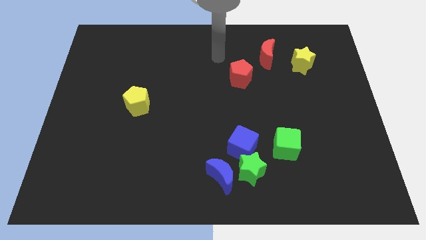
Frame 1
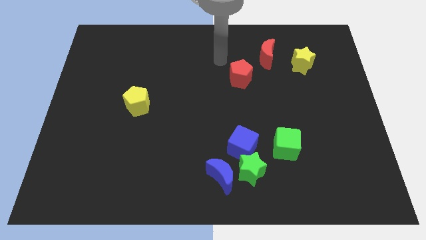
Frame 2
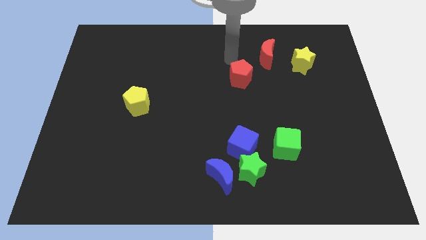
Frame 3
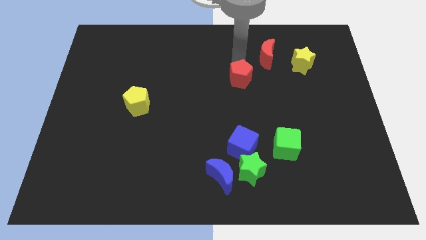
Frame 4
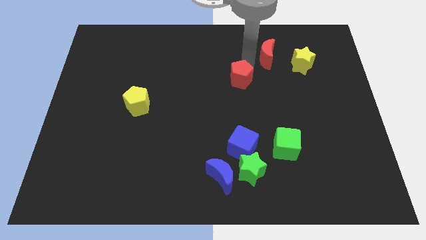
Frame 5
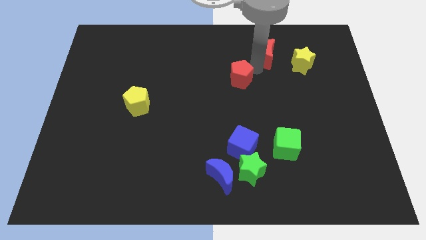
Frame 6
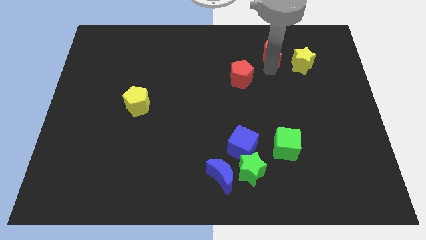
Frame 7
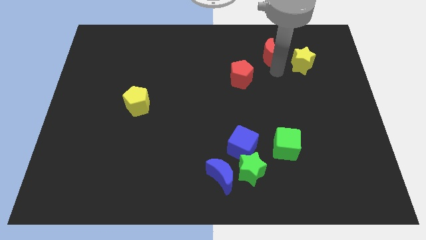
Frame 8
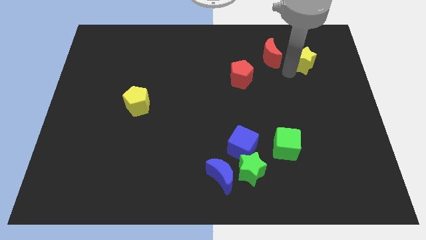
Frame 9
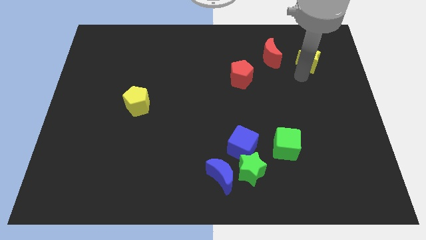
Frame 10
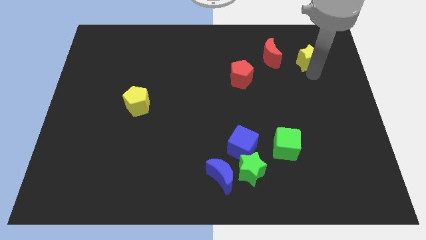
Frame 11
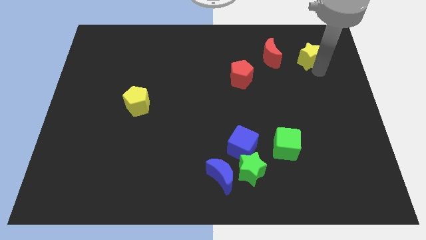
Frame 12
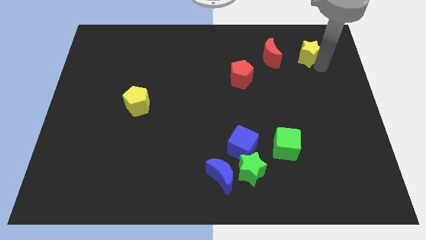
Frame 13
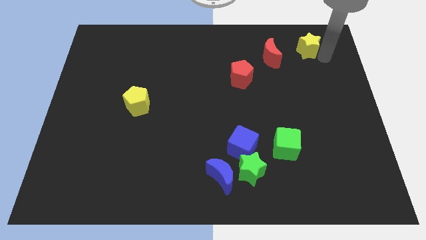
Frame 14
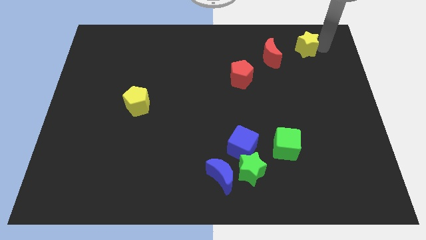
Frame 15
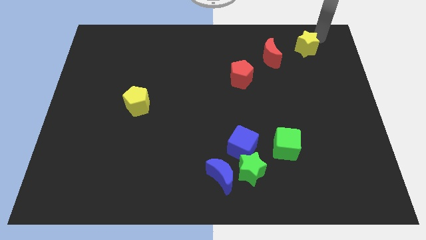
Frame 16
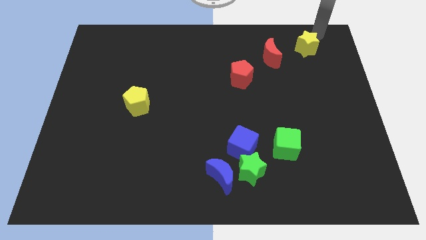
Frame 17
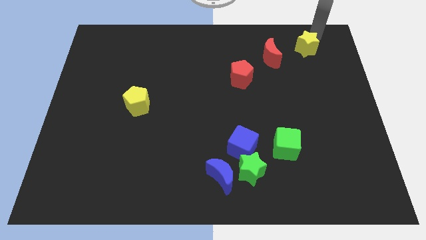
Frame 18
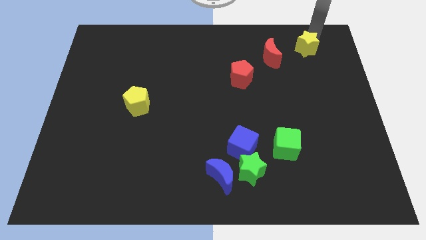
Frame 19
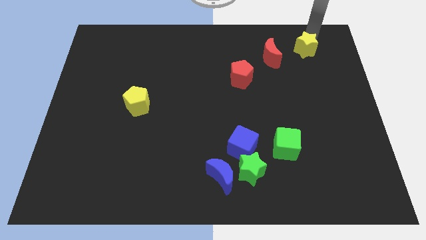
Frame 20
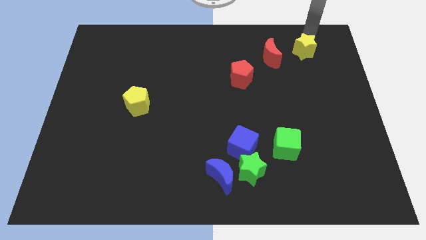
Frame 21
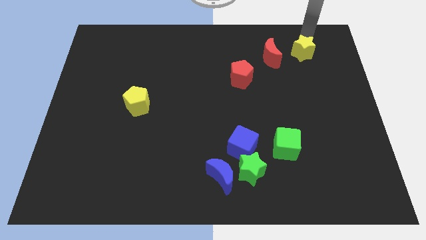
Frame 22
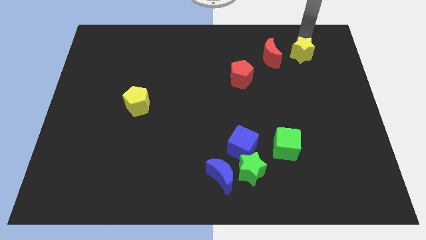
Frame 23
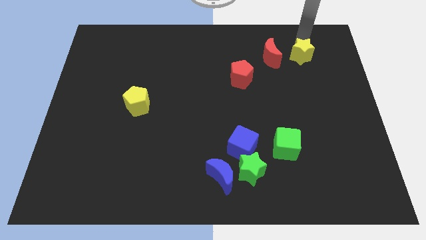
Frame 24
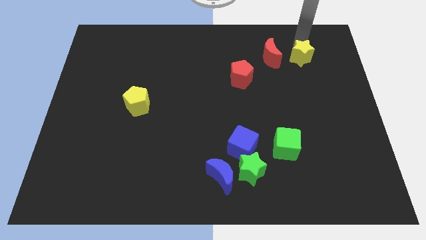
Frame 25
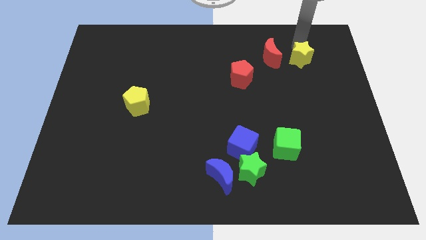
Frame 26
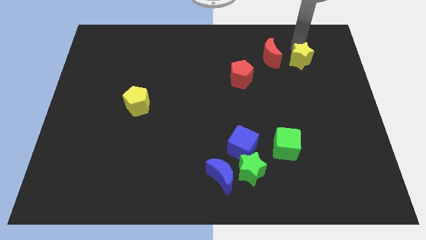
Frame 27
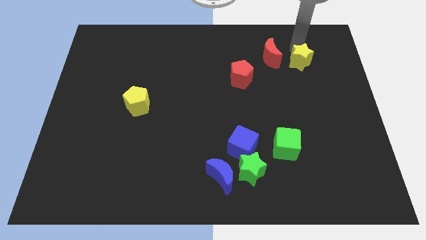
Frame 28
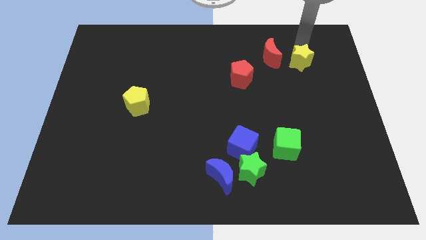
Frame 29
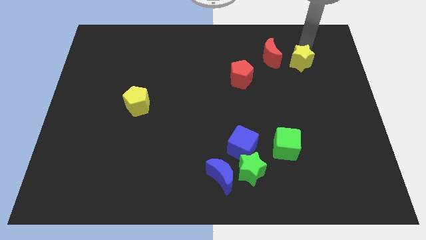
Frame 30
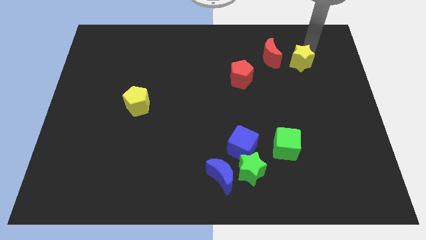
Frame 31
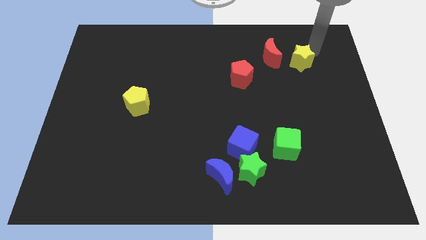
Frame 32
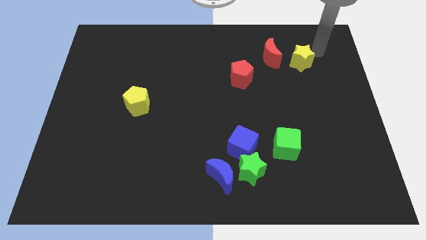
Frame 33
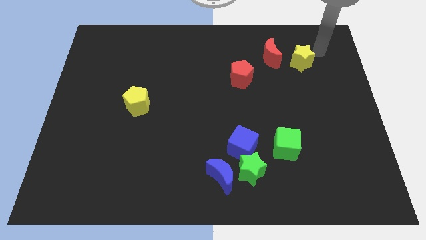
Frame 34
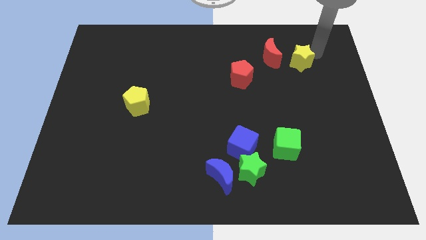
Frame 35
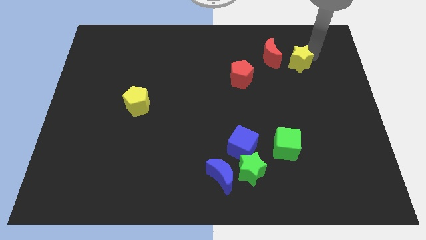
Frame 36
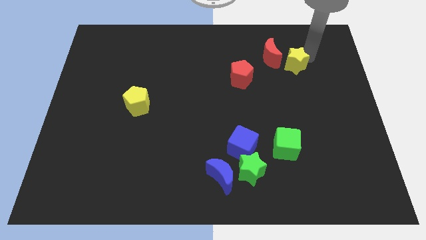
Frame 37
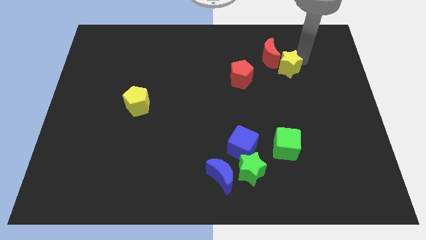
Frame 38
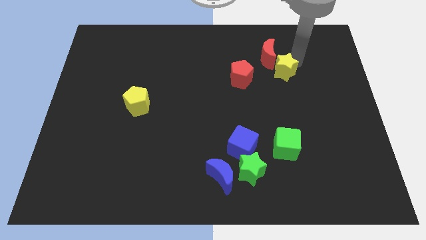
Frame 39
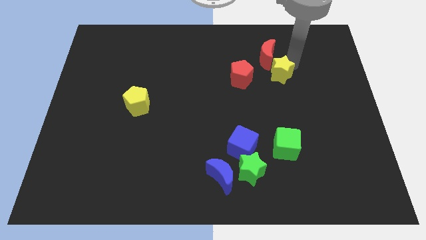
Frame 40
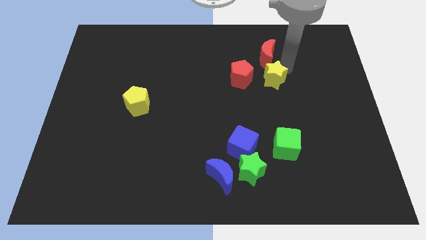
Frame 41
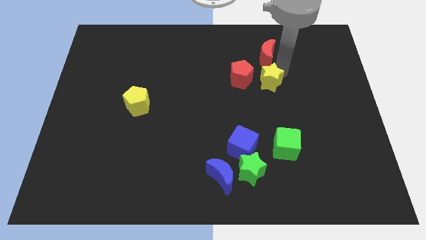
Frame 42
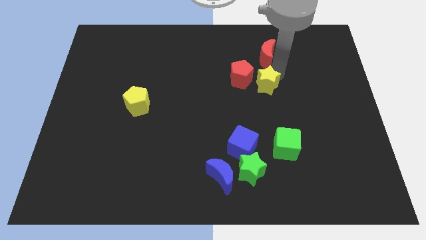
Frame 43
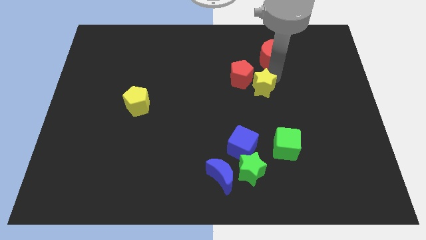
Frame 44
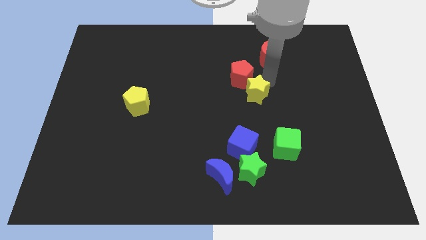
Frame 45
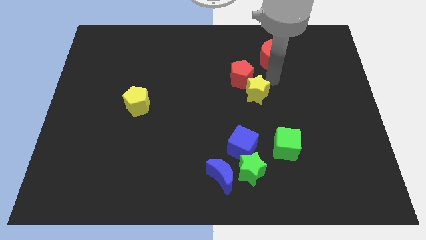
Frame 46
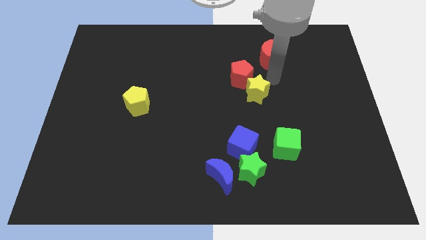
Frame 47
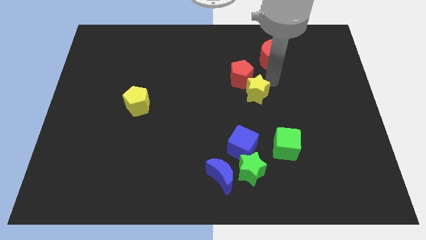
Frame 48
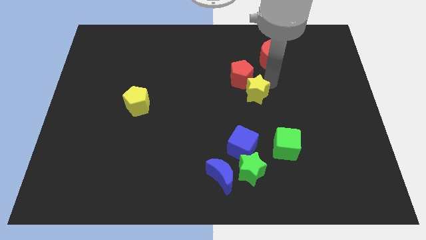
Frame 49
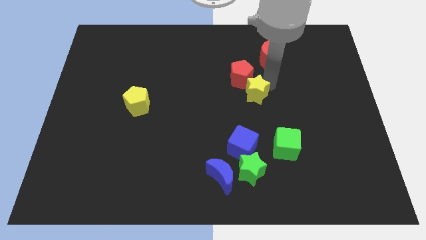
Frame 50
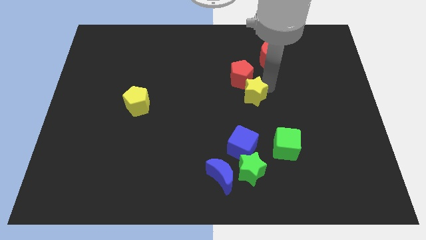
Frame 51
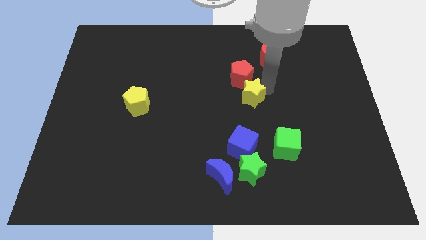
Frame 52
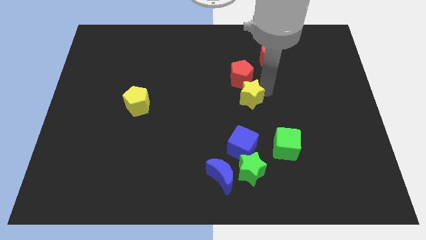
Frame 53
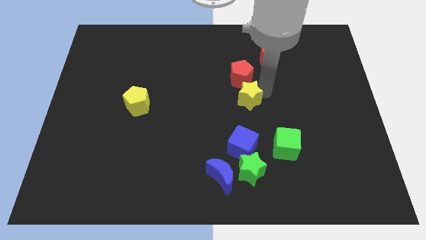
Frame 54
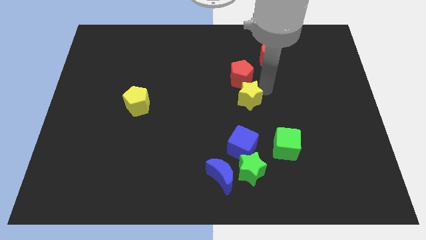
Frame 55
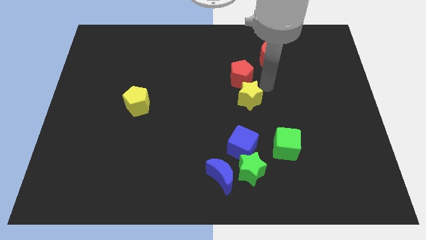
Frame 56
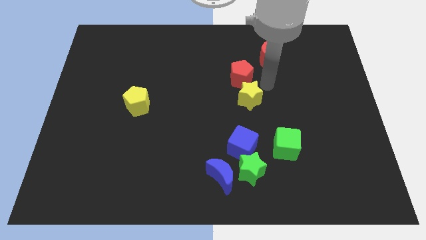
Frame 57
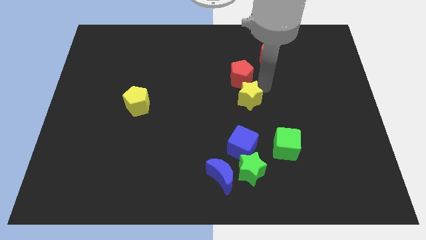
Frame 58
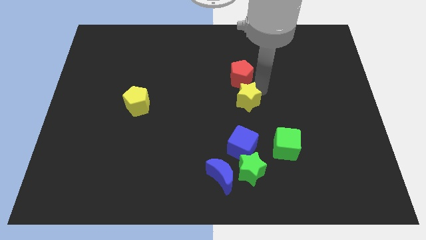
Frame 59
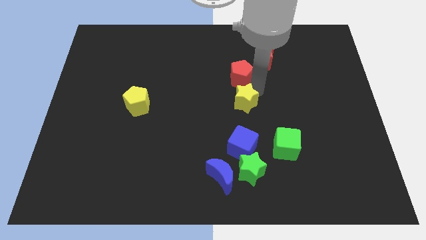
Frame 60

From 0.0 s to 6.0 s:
slide the yellow star down and left diagonally

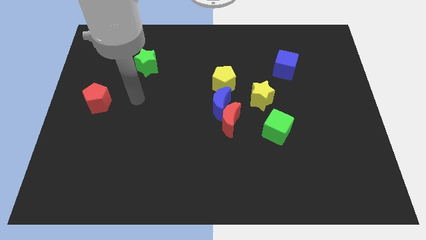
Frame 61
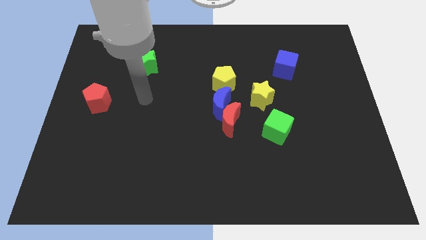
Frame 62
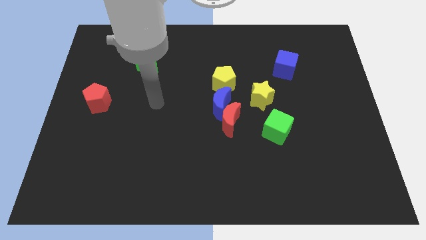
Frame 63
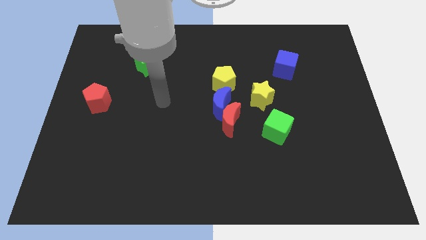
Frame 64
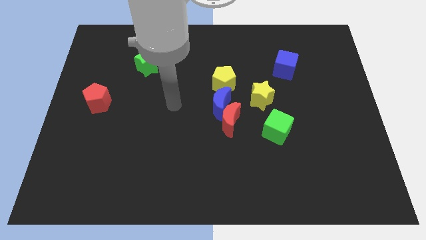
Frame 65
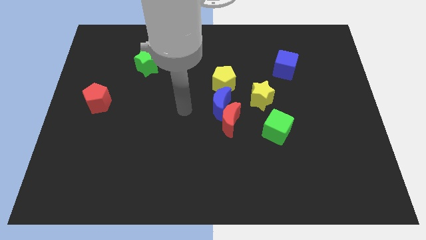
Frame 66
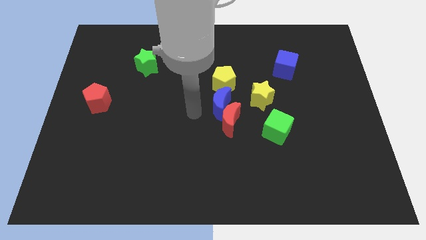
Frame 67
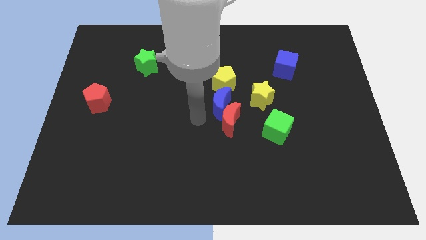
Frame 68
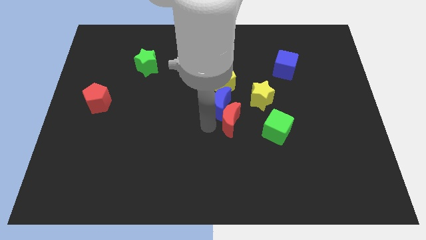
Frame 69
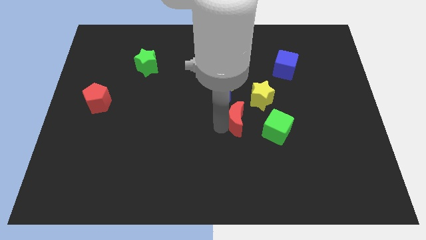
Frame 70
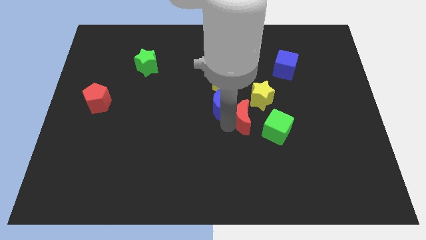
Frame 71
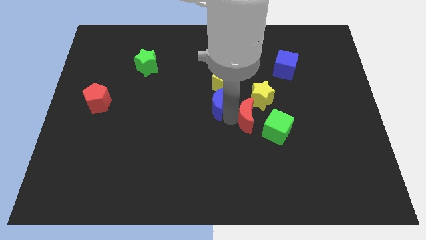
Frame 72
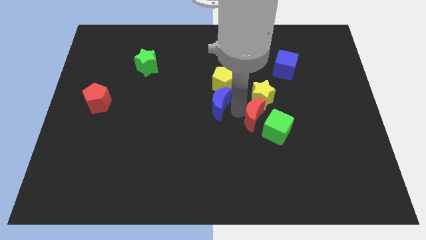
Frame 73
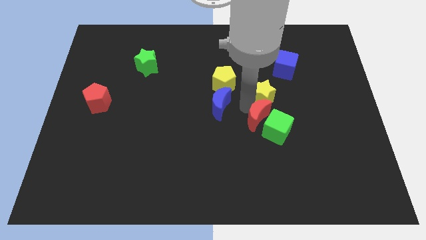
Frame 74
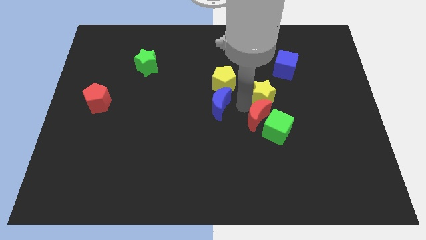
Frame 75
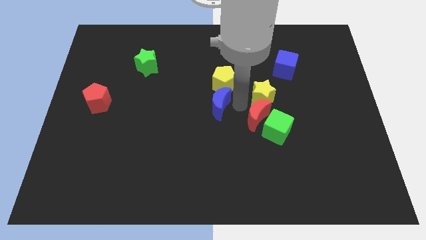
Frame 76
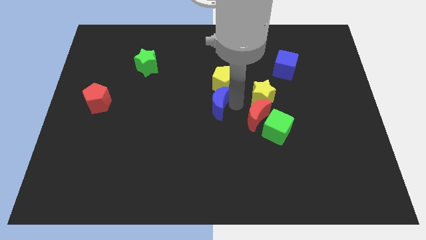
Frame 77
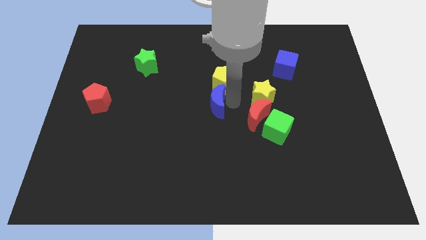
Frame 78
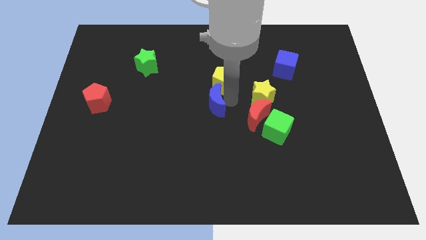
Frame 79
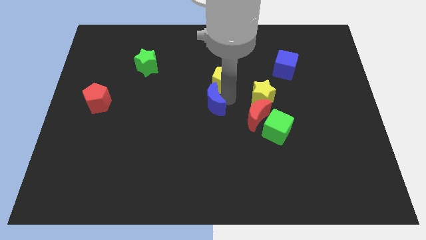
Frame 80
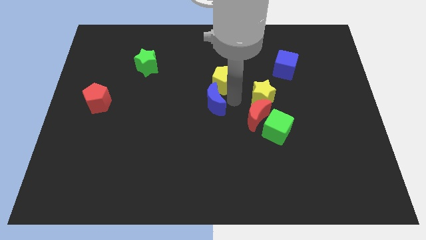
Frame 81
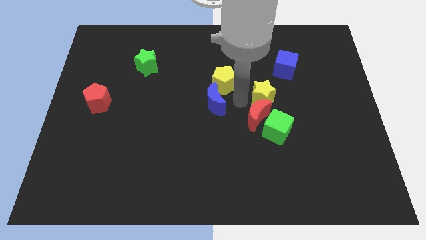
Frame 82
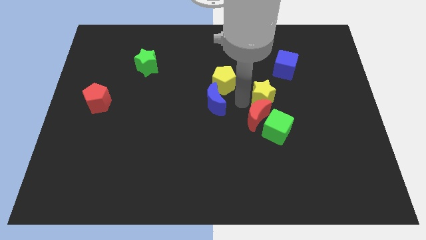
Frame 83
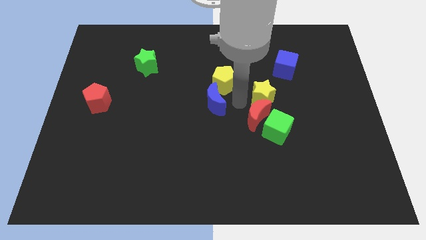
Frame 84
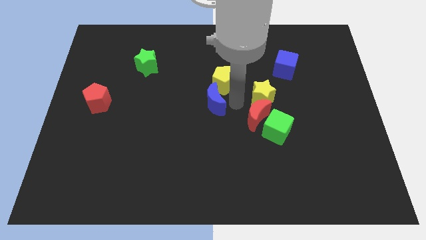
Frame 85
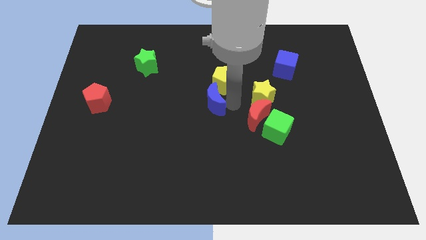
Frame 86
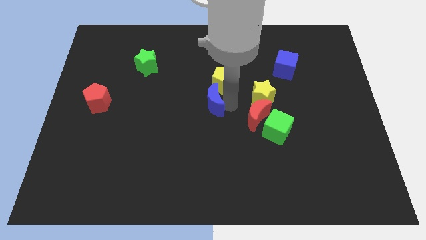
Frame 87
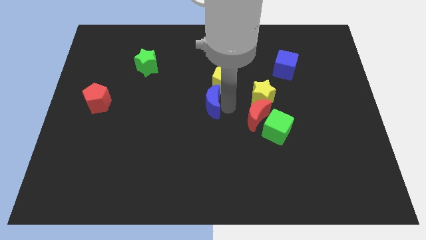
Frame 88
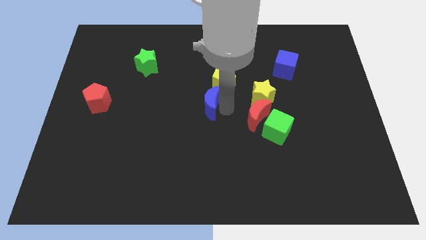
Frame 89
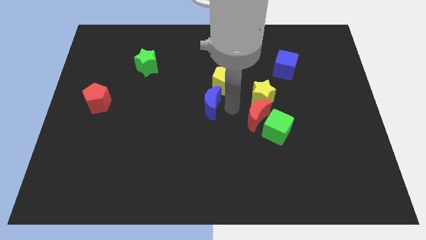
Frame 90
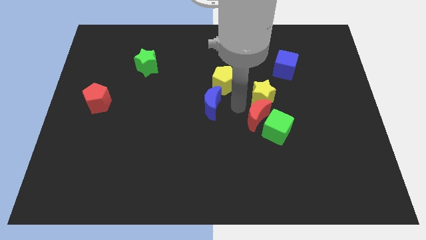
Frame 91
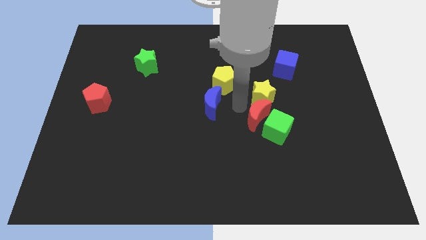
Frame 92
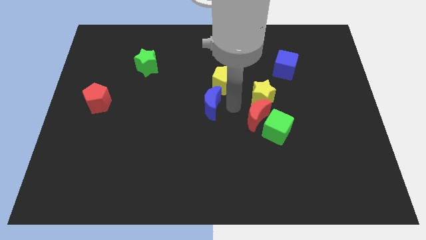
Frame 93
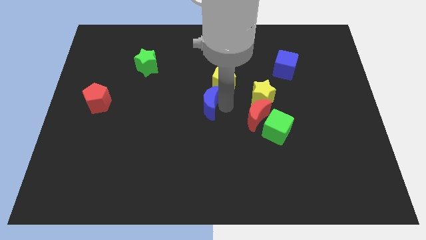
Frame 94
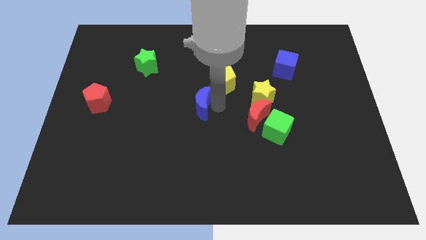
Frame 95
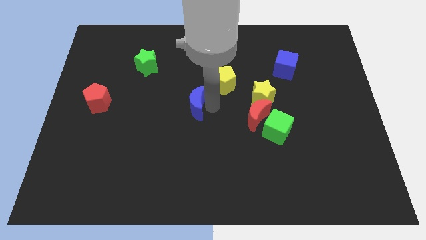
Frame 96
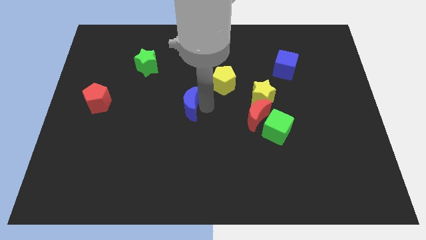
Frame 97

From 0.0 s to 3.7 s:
move the blue moon to the left slightly
